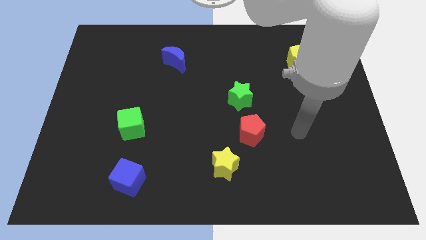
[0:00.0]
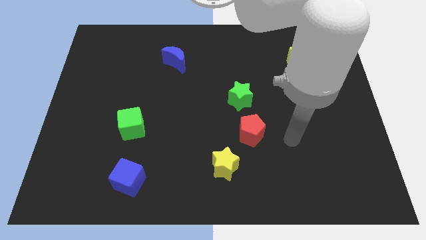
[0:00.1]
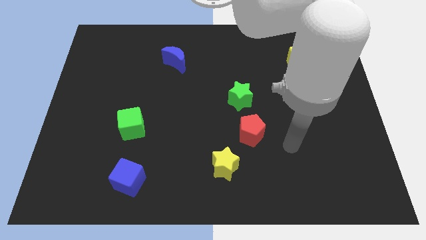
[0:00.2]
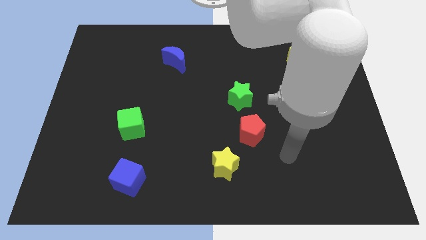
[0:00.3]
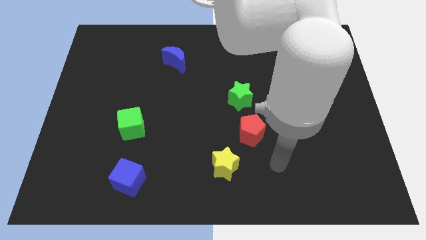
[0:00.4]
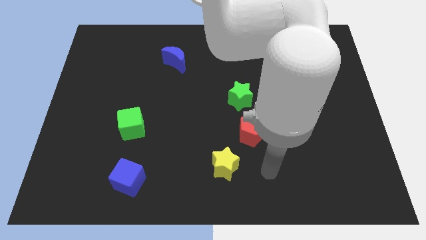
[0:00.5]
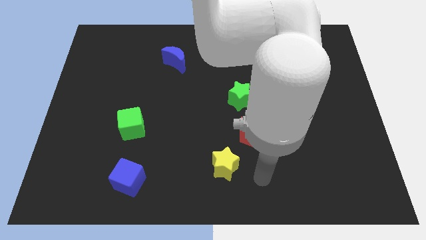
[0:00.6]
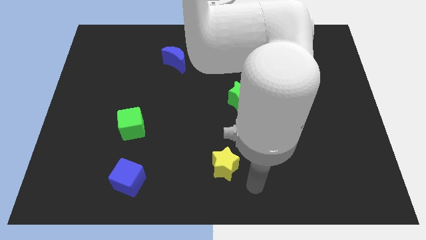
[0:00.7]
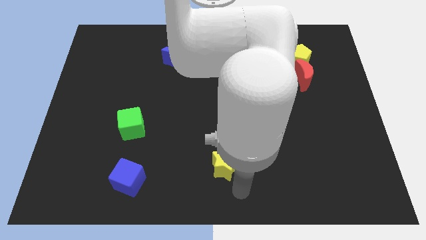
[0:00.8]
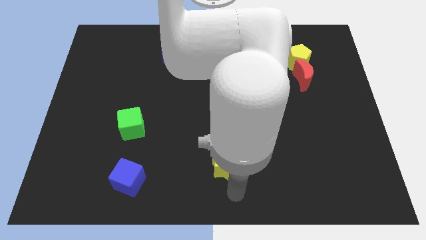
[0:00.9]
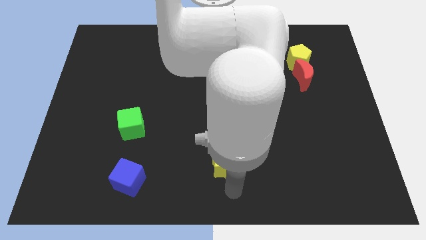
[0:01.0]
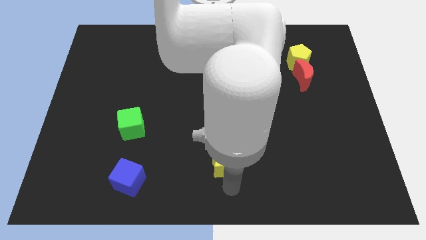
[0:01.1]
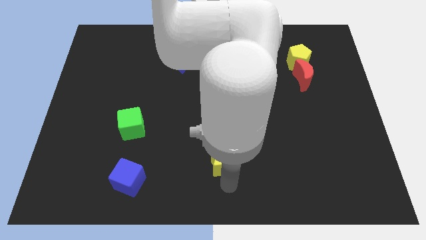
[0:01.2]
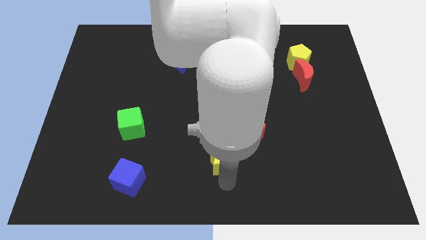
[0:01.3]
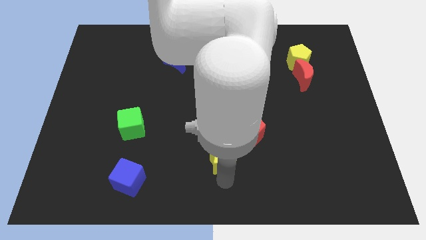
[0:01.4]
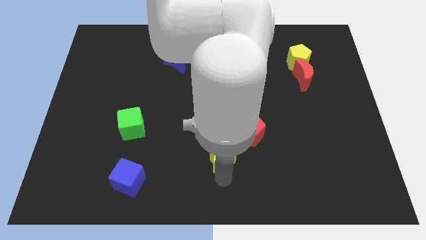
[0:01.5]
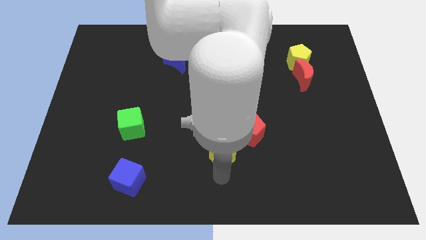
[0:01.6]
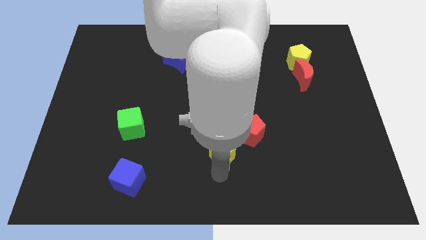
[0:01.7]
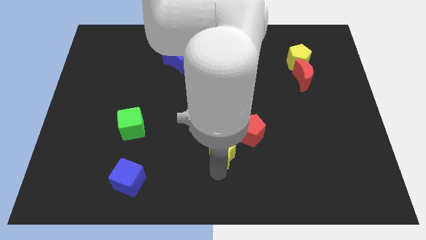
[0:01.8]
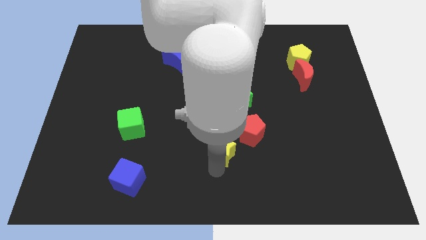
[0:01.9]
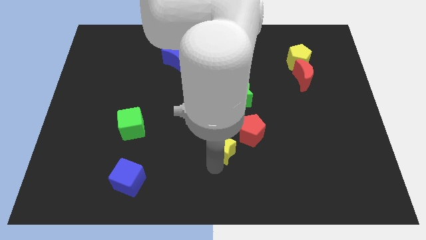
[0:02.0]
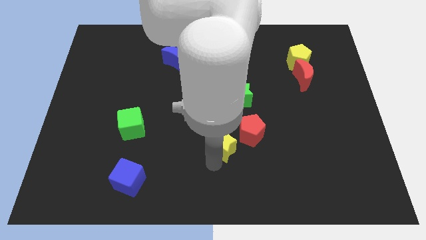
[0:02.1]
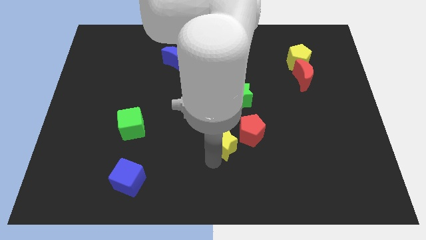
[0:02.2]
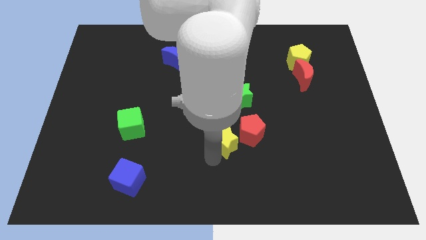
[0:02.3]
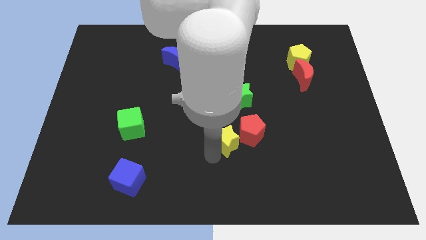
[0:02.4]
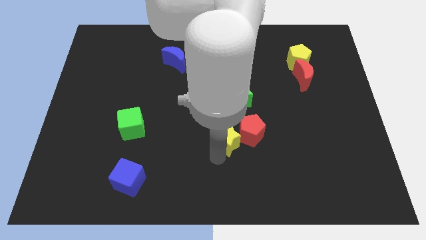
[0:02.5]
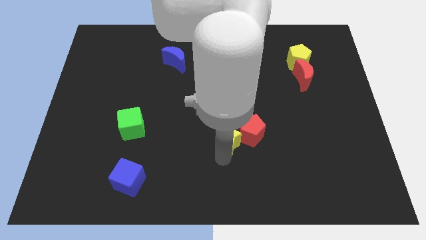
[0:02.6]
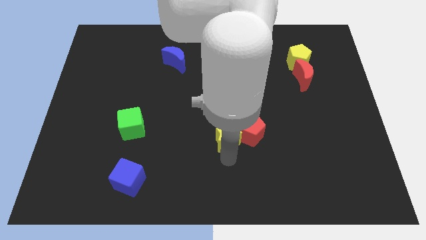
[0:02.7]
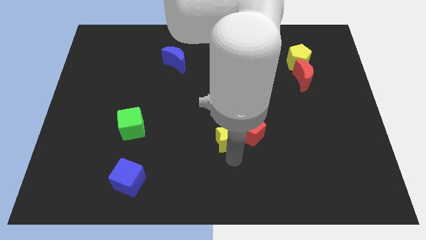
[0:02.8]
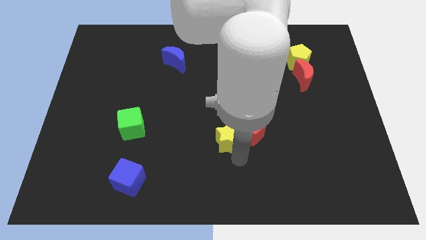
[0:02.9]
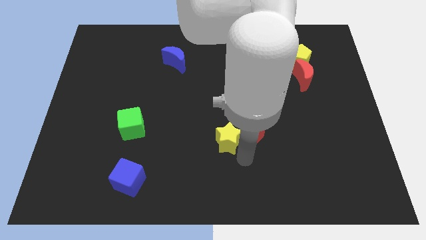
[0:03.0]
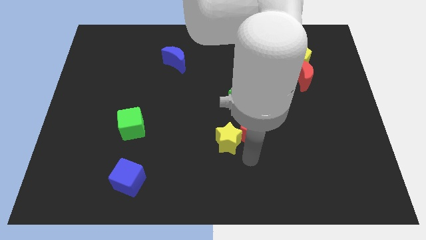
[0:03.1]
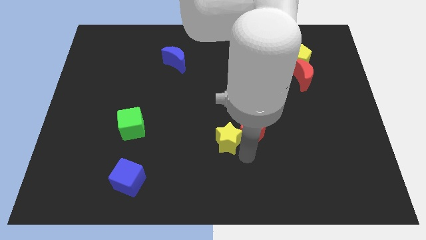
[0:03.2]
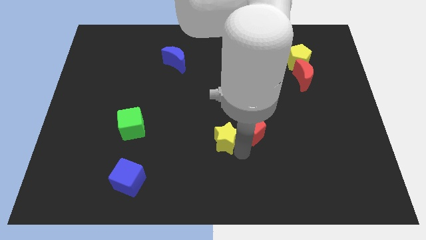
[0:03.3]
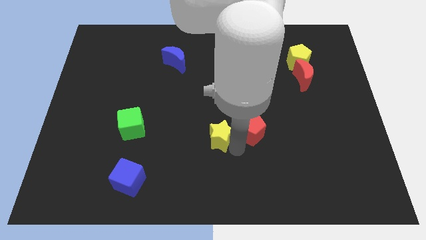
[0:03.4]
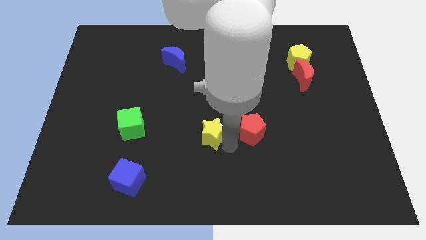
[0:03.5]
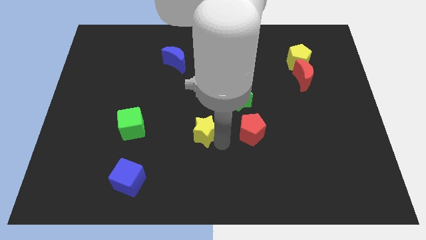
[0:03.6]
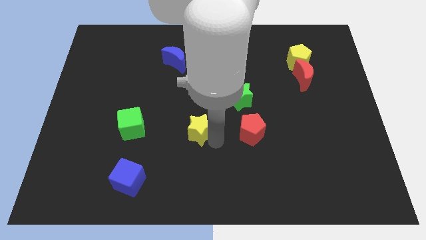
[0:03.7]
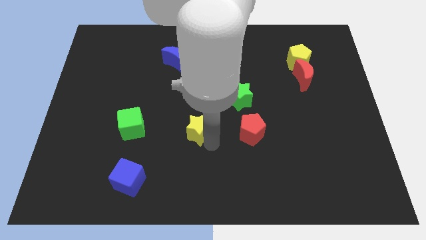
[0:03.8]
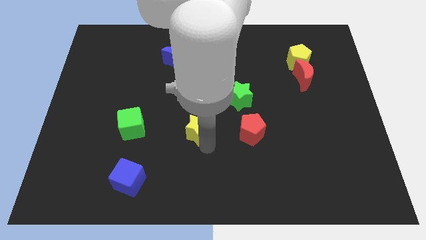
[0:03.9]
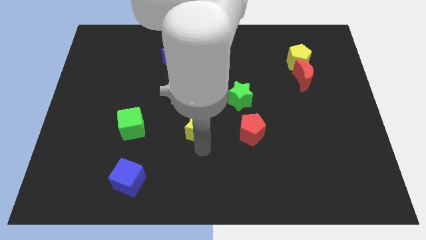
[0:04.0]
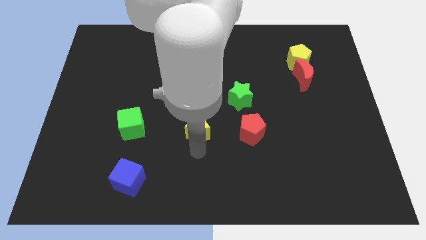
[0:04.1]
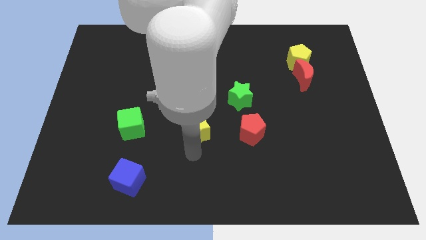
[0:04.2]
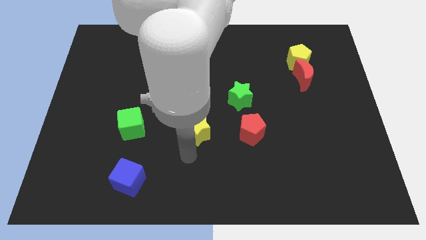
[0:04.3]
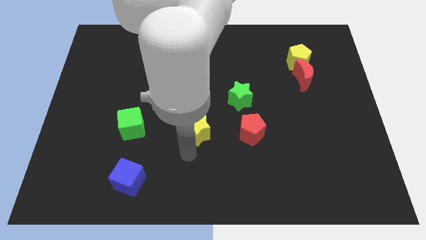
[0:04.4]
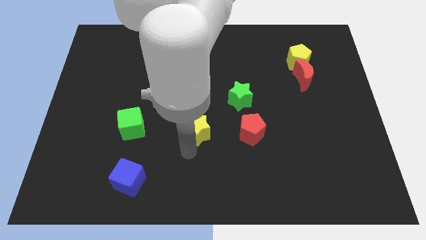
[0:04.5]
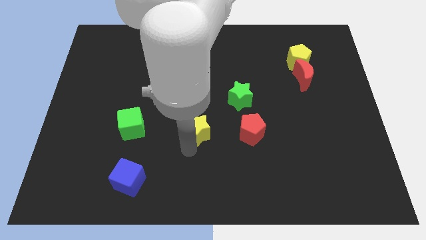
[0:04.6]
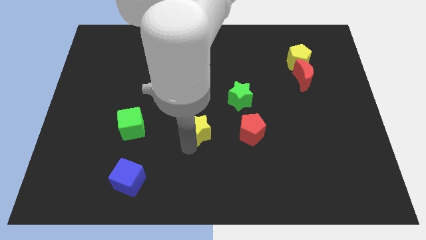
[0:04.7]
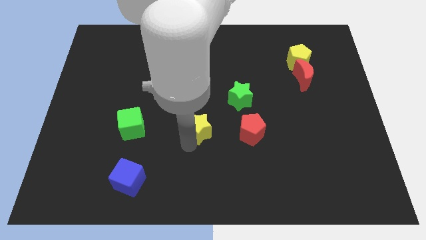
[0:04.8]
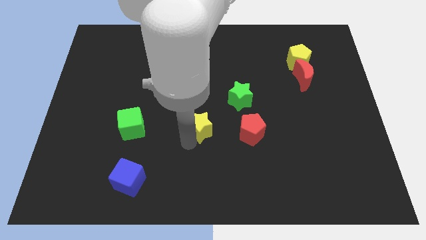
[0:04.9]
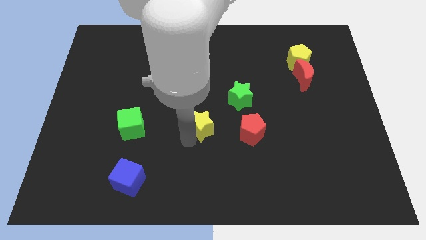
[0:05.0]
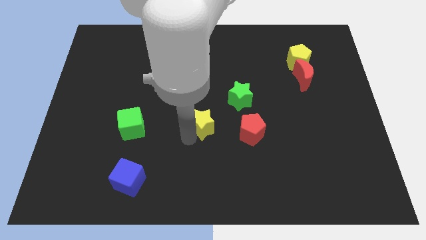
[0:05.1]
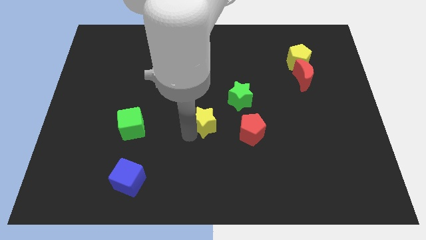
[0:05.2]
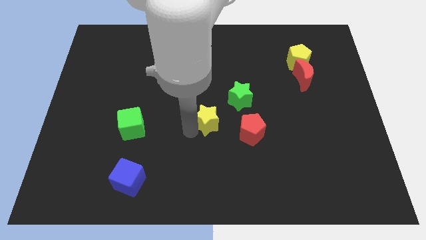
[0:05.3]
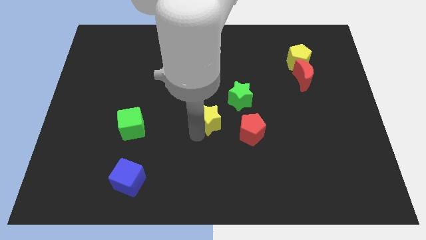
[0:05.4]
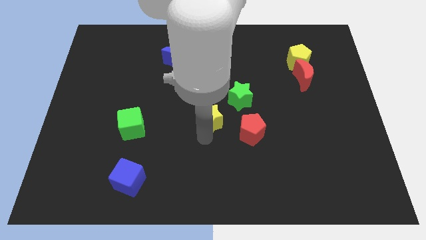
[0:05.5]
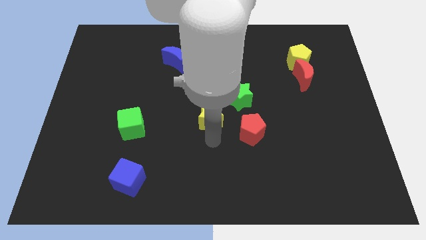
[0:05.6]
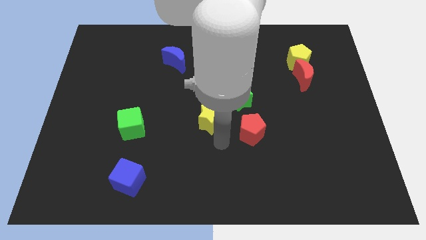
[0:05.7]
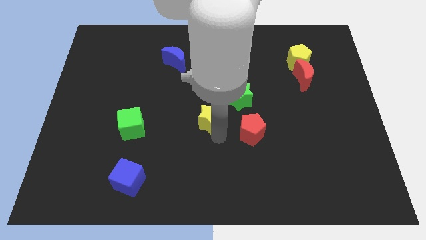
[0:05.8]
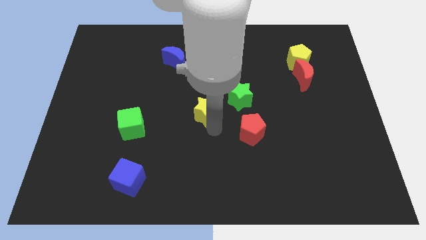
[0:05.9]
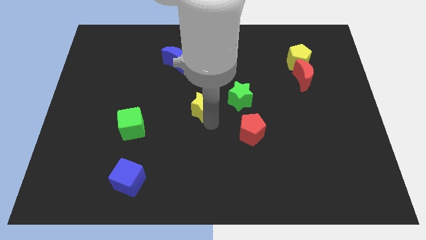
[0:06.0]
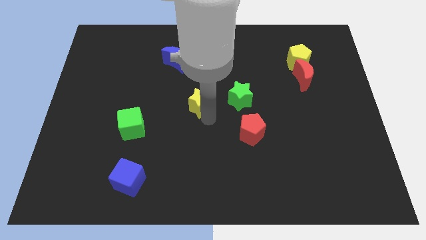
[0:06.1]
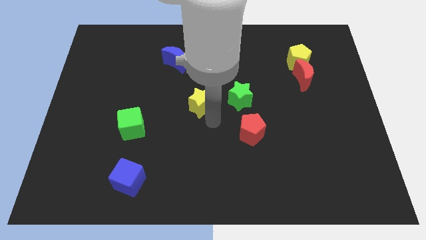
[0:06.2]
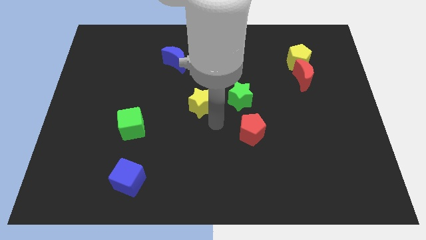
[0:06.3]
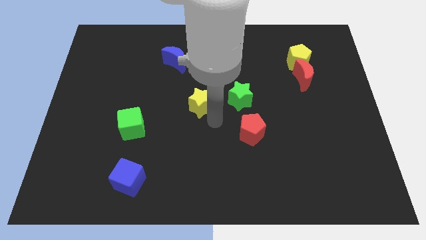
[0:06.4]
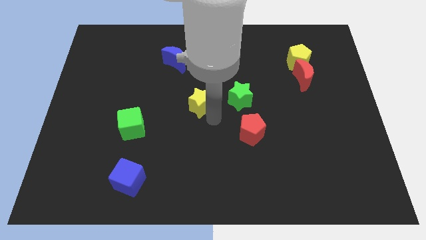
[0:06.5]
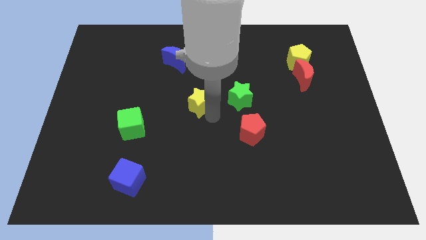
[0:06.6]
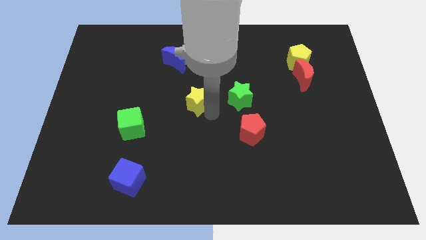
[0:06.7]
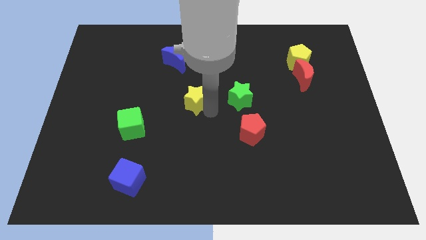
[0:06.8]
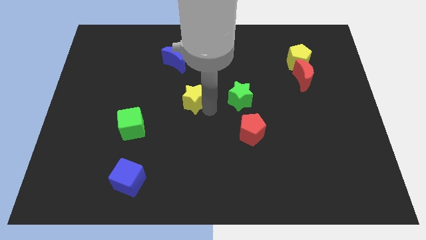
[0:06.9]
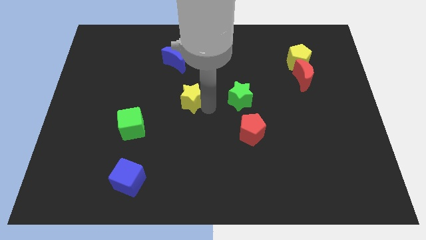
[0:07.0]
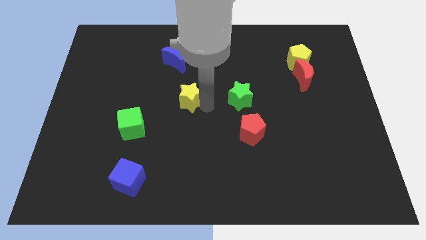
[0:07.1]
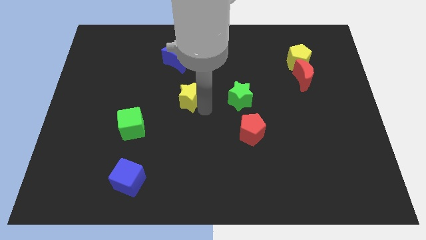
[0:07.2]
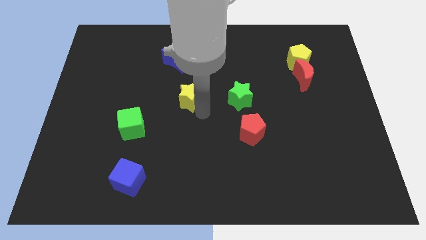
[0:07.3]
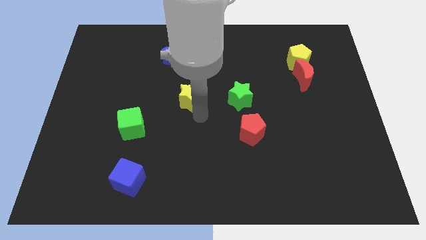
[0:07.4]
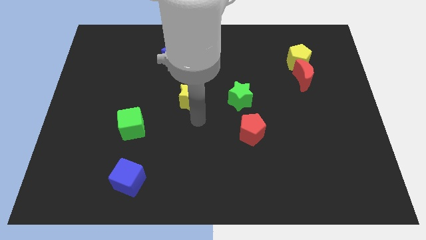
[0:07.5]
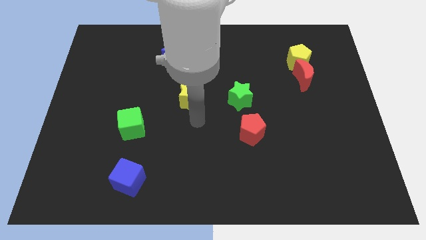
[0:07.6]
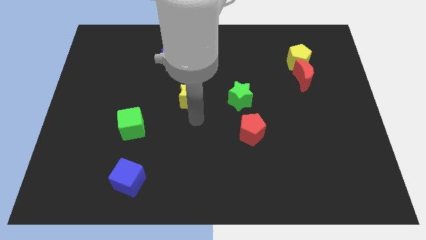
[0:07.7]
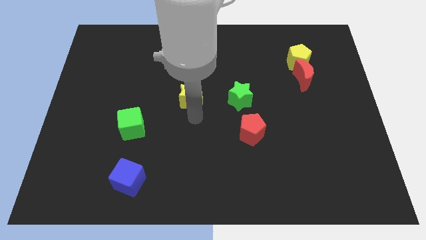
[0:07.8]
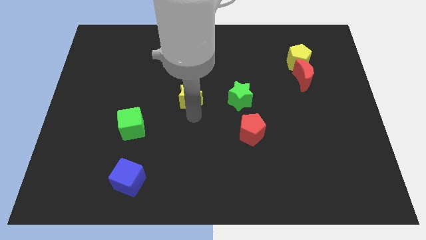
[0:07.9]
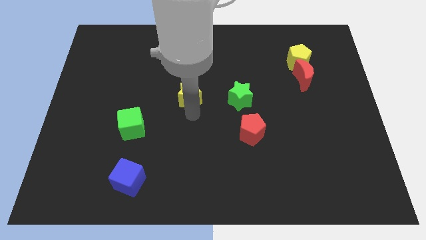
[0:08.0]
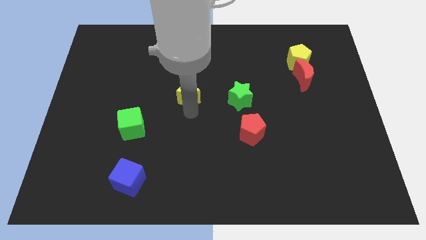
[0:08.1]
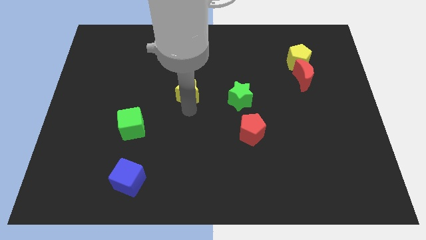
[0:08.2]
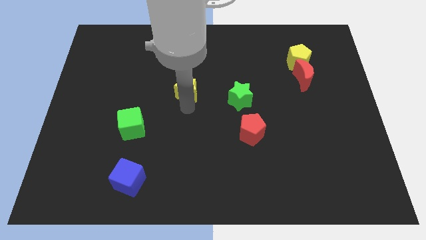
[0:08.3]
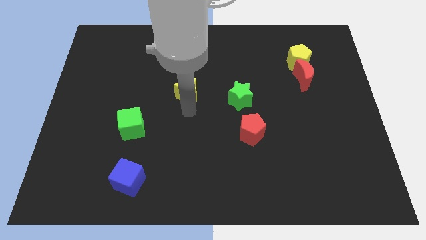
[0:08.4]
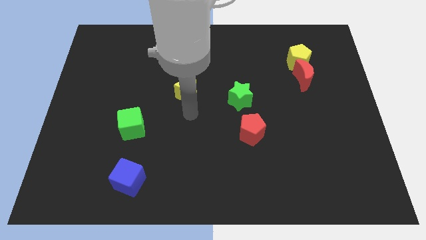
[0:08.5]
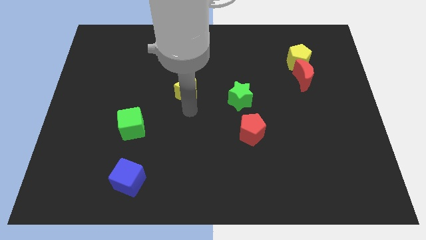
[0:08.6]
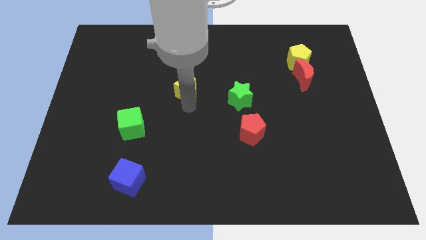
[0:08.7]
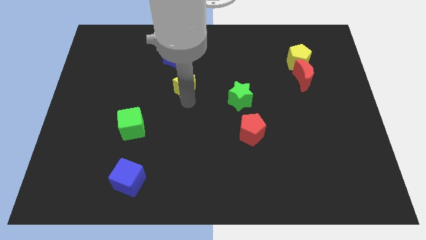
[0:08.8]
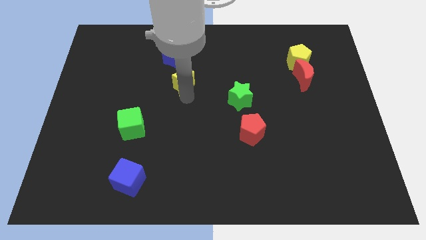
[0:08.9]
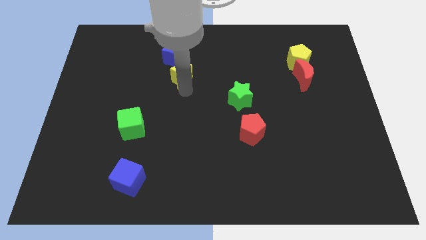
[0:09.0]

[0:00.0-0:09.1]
slide the yellow star towards the blue moon
